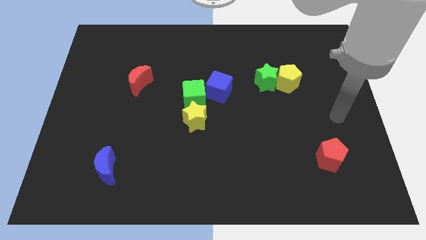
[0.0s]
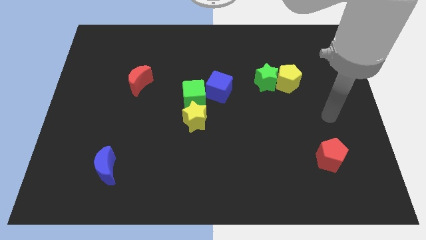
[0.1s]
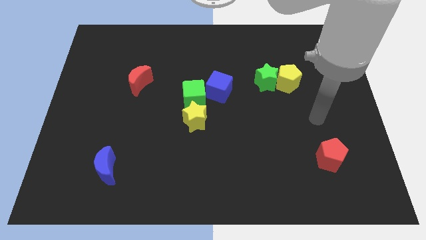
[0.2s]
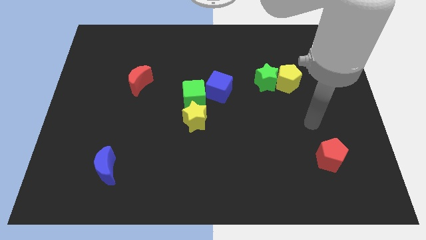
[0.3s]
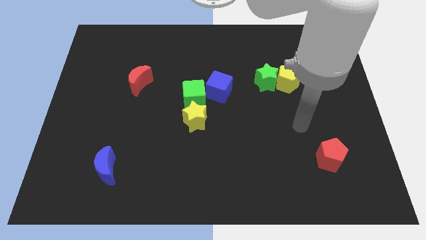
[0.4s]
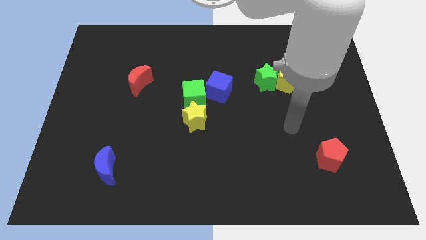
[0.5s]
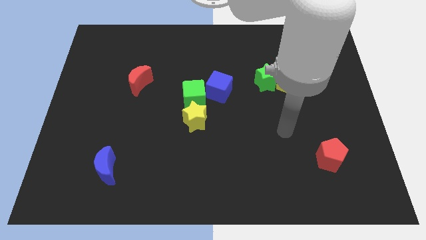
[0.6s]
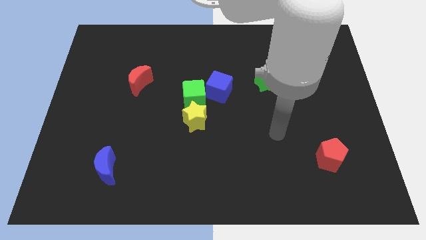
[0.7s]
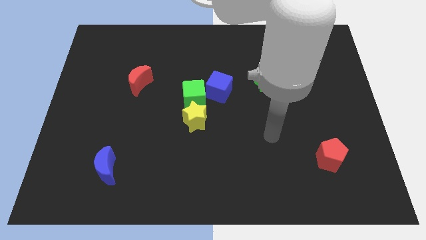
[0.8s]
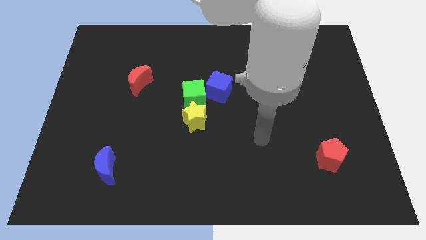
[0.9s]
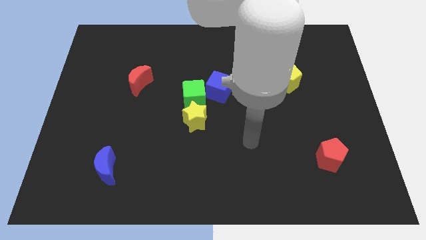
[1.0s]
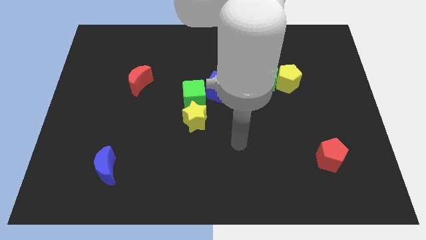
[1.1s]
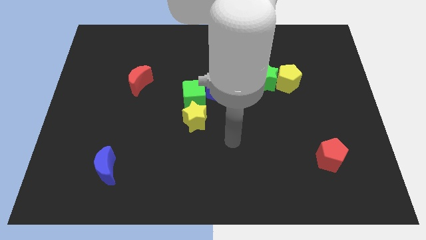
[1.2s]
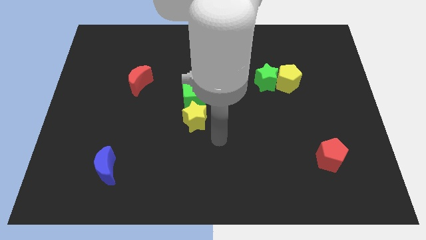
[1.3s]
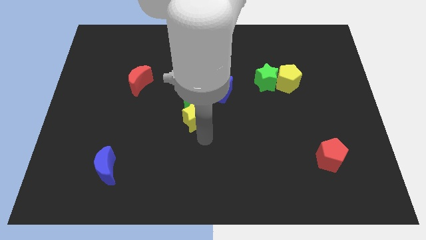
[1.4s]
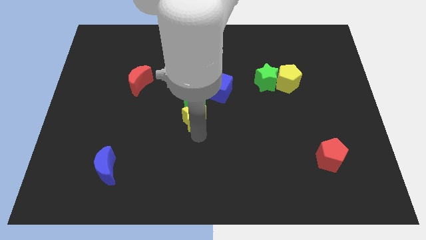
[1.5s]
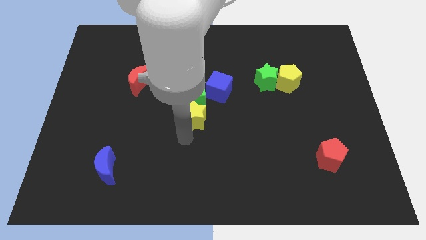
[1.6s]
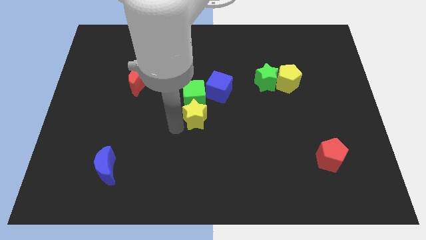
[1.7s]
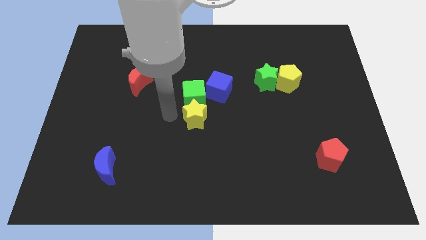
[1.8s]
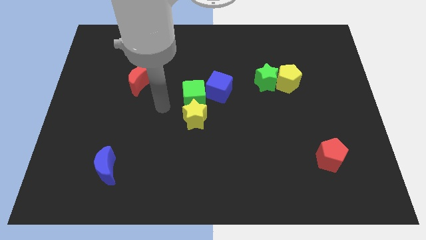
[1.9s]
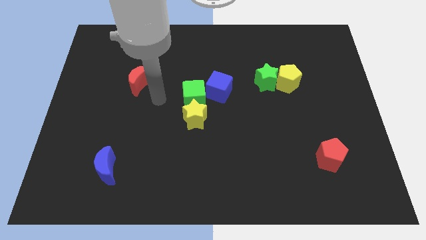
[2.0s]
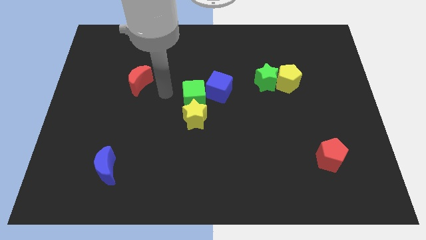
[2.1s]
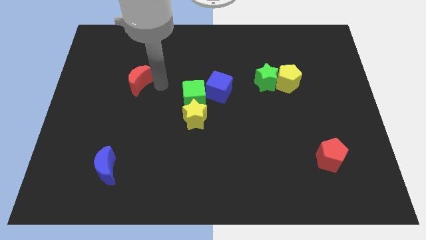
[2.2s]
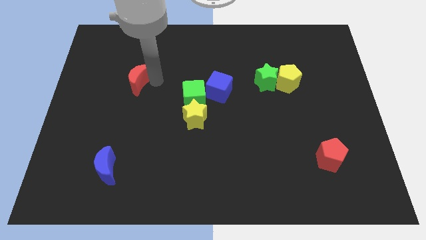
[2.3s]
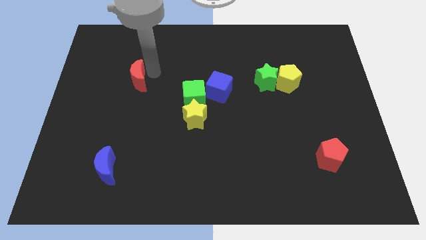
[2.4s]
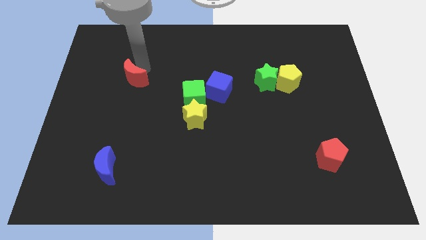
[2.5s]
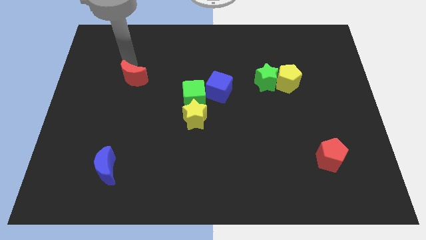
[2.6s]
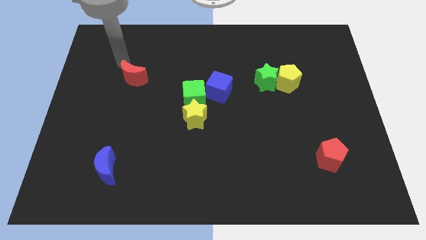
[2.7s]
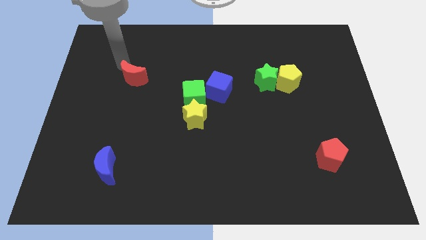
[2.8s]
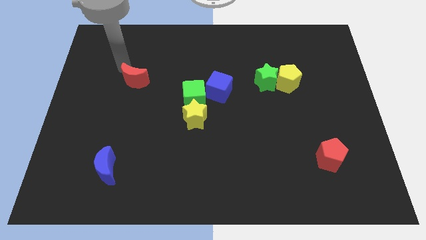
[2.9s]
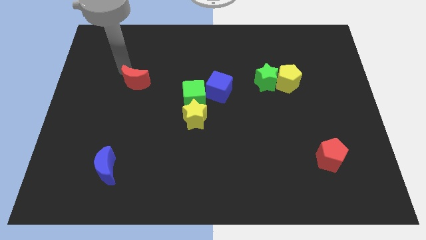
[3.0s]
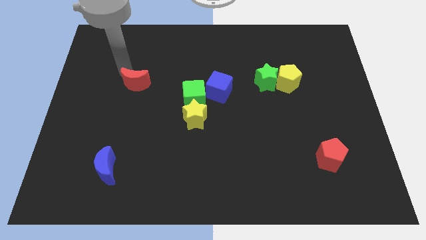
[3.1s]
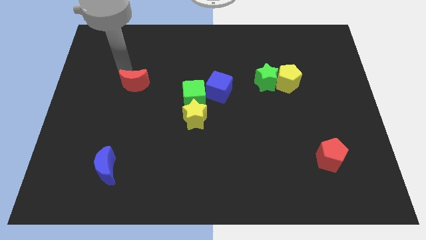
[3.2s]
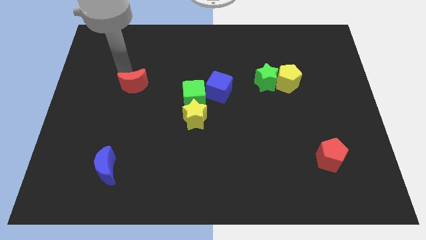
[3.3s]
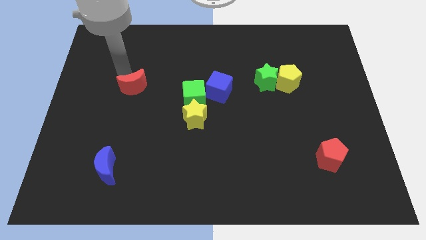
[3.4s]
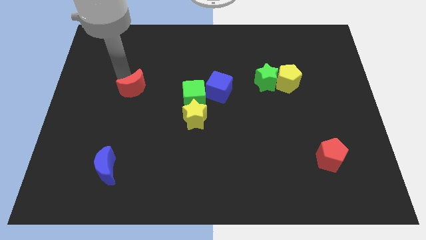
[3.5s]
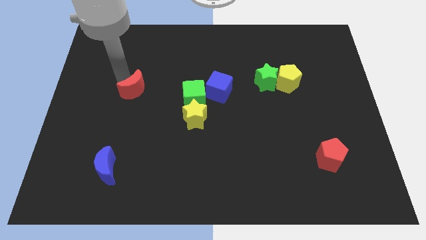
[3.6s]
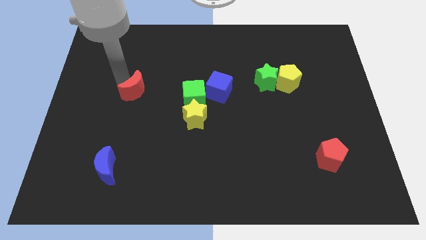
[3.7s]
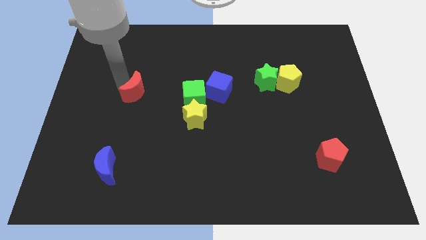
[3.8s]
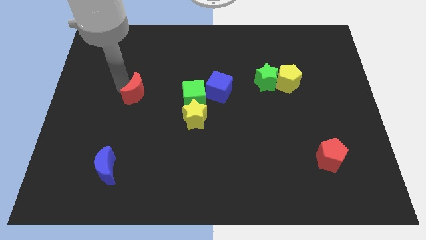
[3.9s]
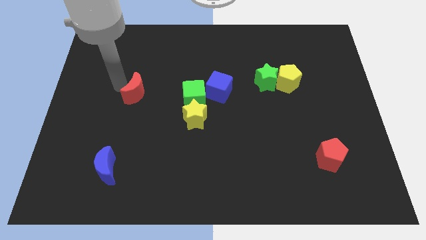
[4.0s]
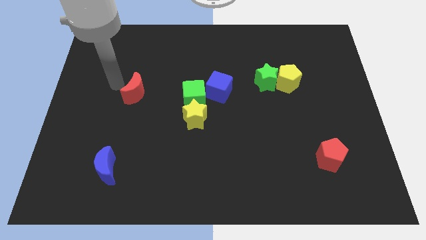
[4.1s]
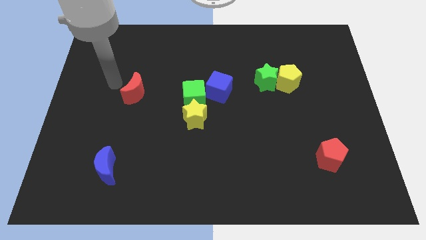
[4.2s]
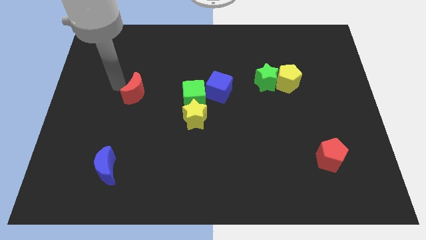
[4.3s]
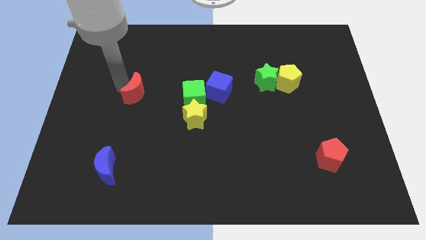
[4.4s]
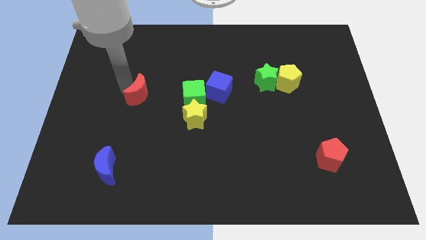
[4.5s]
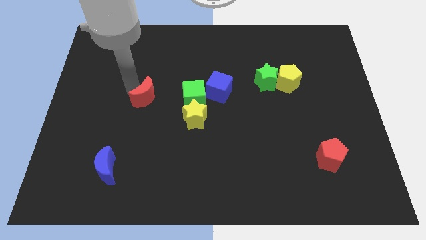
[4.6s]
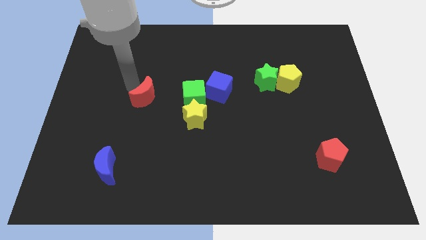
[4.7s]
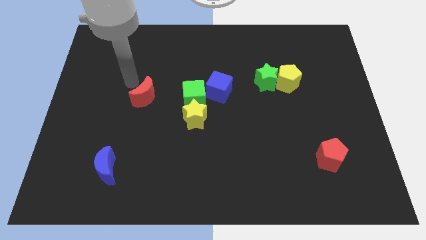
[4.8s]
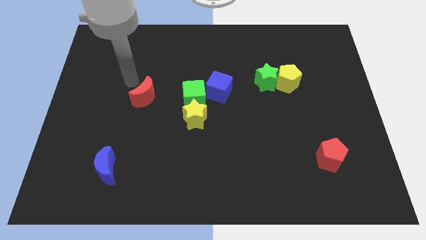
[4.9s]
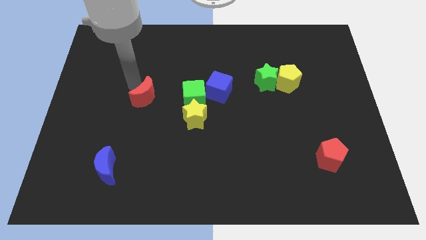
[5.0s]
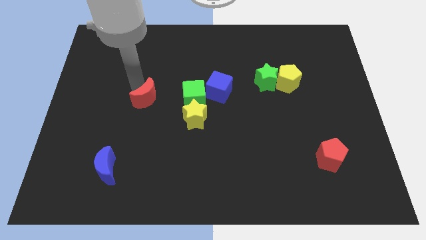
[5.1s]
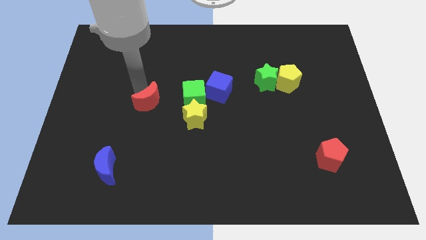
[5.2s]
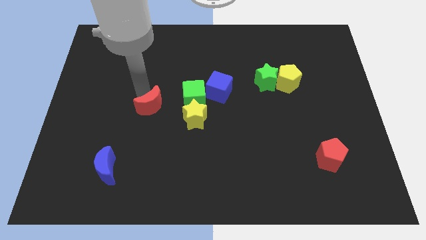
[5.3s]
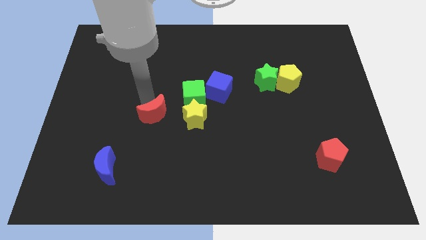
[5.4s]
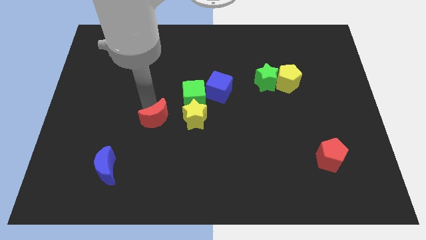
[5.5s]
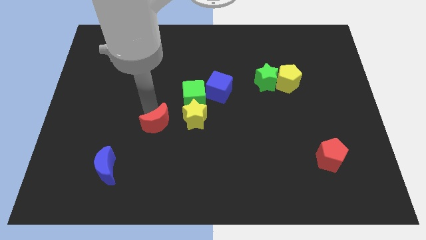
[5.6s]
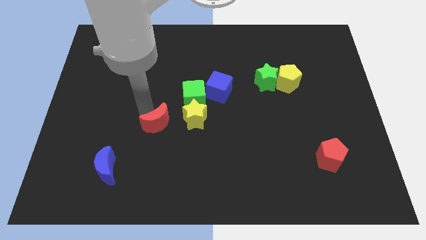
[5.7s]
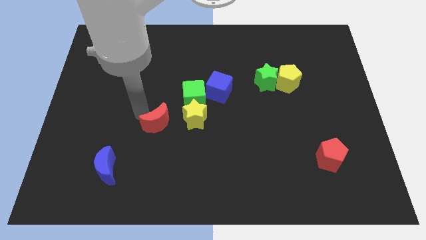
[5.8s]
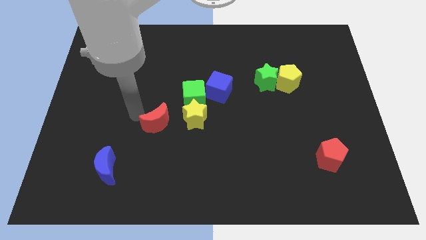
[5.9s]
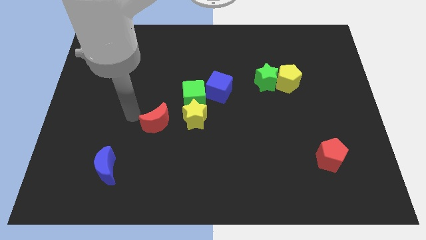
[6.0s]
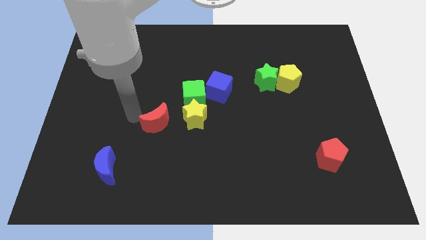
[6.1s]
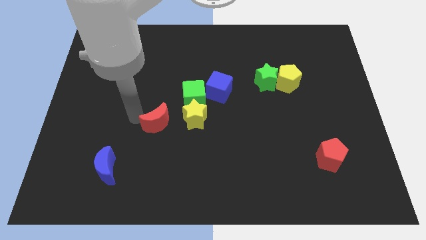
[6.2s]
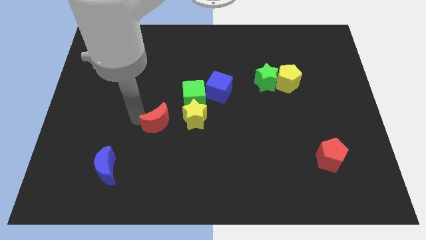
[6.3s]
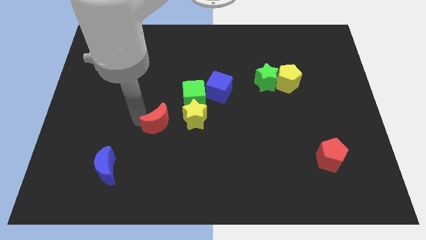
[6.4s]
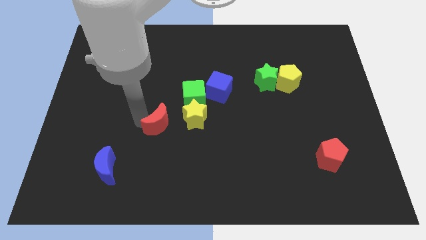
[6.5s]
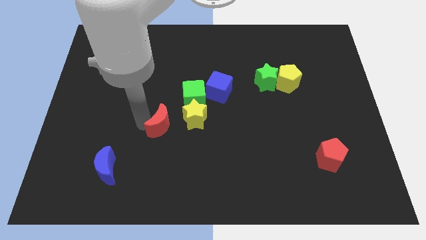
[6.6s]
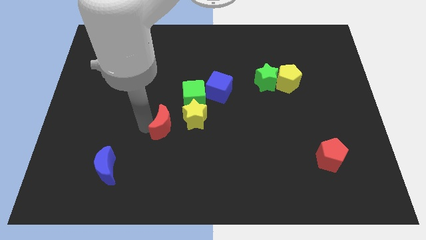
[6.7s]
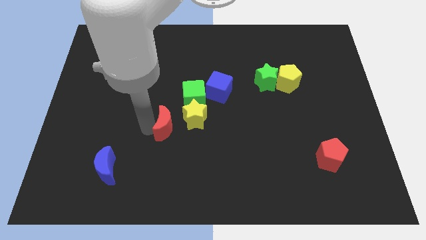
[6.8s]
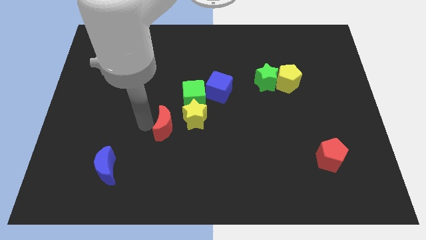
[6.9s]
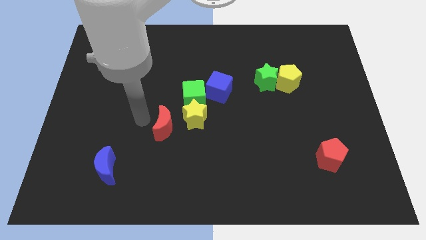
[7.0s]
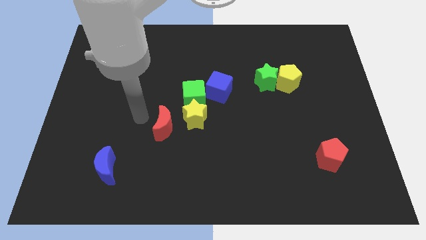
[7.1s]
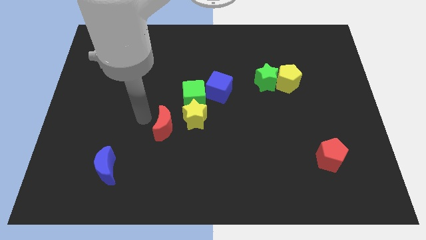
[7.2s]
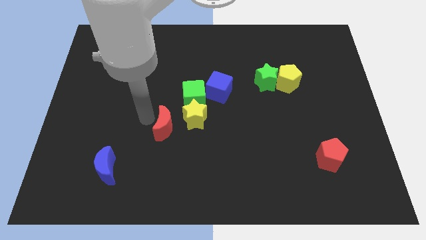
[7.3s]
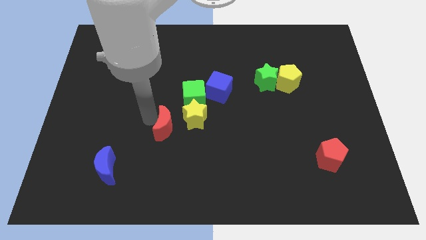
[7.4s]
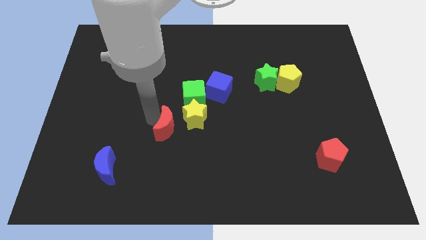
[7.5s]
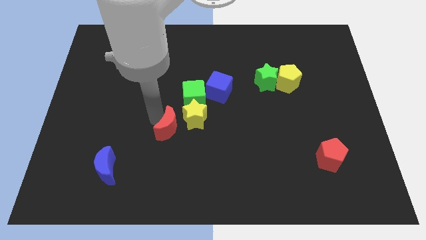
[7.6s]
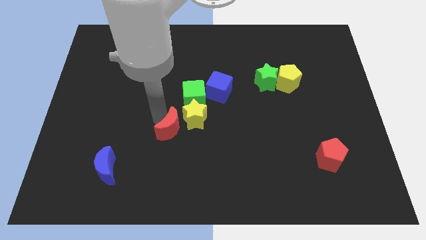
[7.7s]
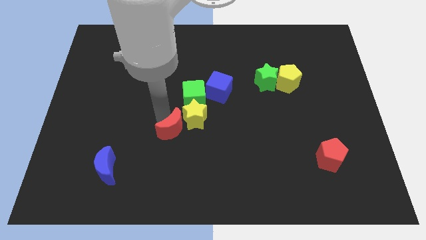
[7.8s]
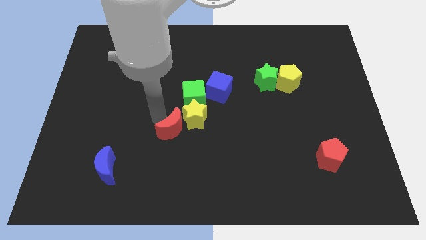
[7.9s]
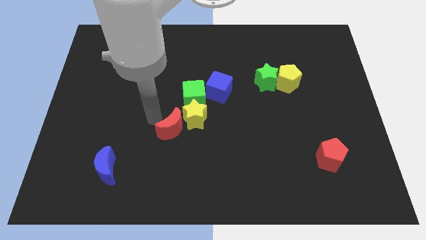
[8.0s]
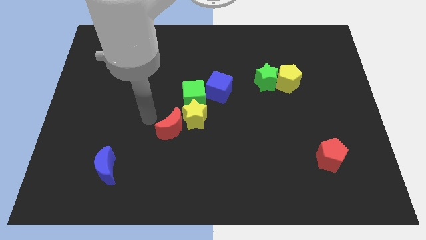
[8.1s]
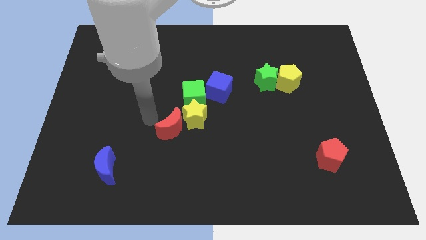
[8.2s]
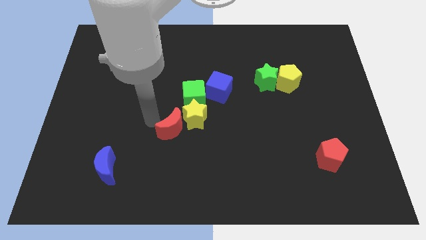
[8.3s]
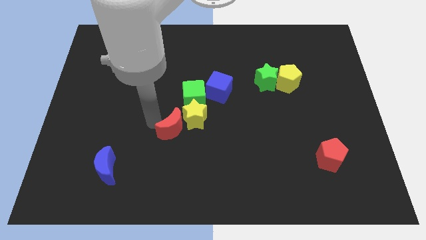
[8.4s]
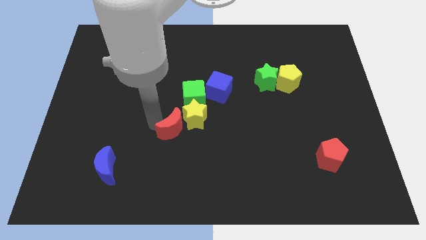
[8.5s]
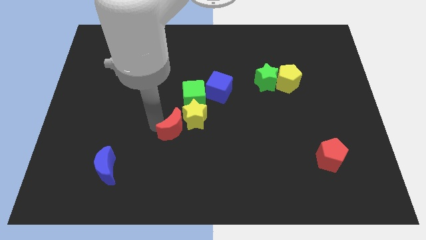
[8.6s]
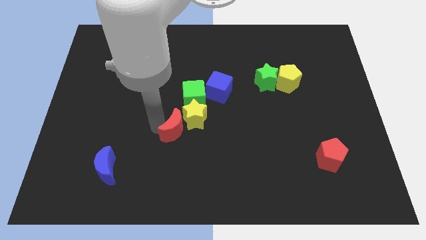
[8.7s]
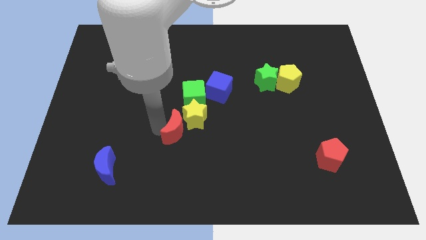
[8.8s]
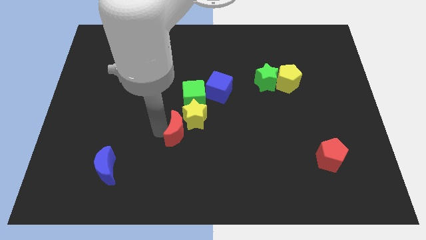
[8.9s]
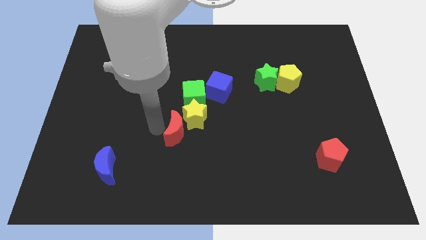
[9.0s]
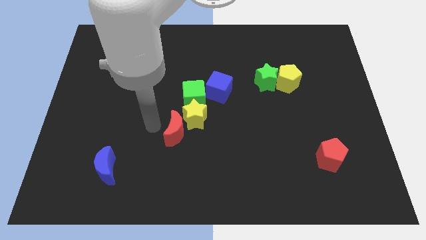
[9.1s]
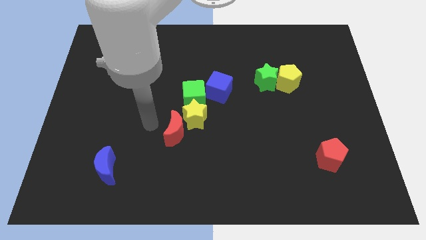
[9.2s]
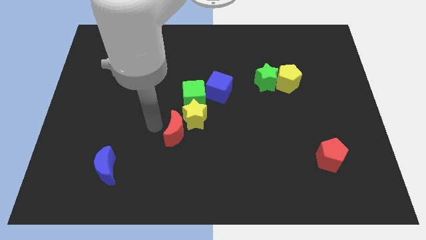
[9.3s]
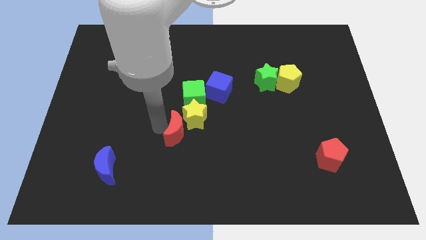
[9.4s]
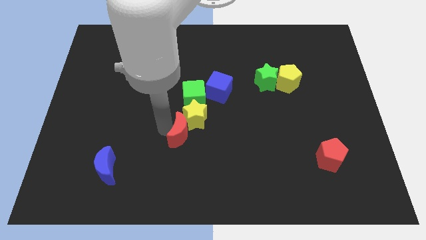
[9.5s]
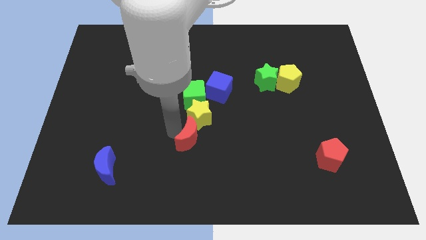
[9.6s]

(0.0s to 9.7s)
move the red moon downwards and right diagonally
